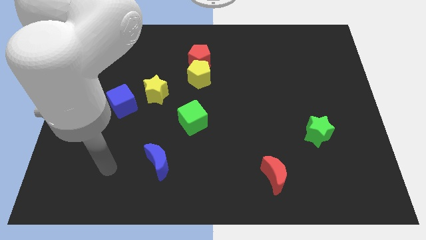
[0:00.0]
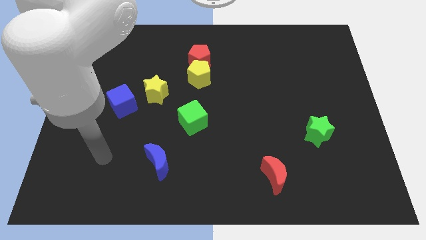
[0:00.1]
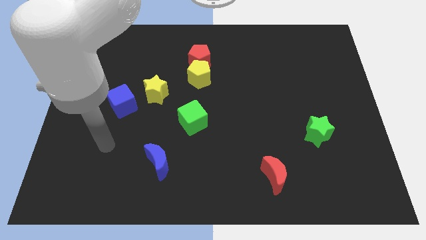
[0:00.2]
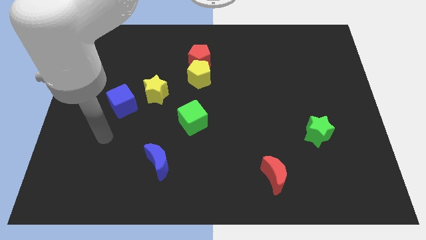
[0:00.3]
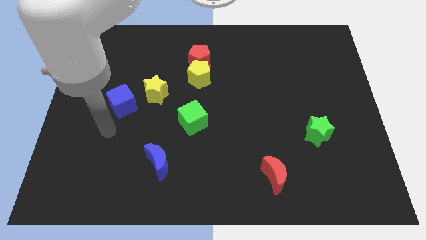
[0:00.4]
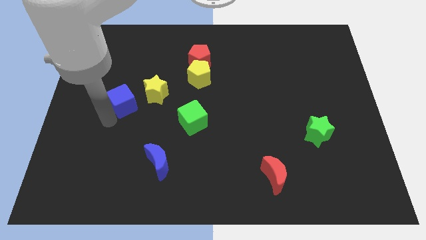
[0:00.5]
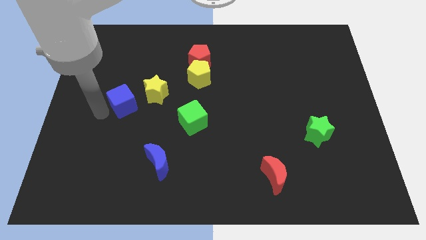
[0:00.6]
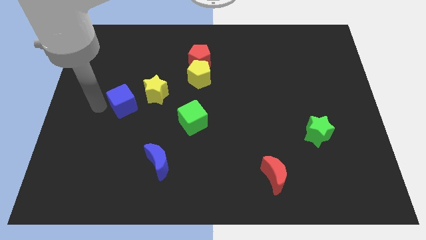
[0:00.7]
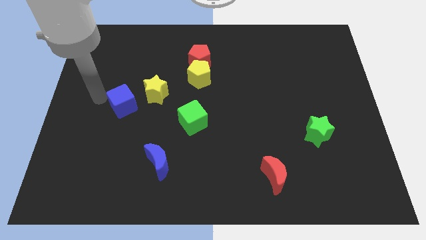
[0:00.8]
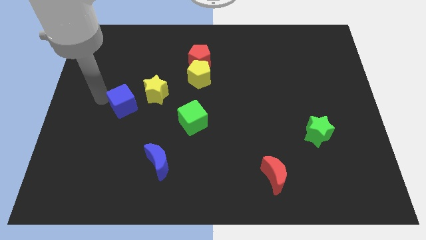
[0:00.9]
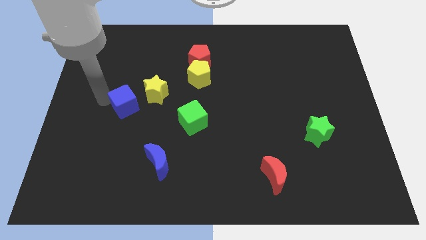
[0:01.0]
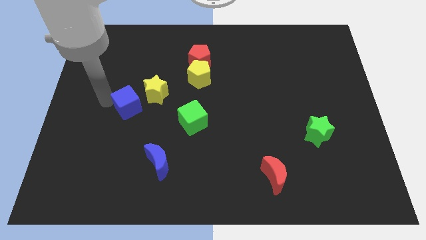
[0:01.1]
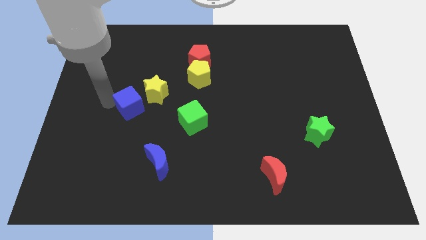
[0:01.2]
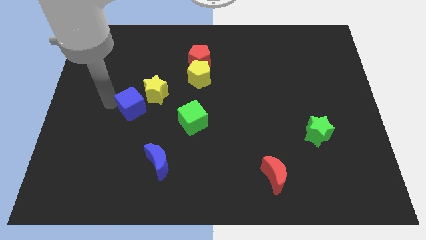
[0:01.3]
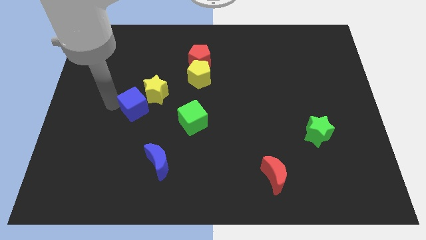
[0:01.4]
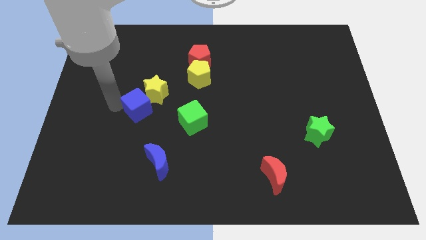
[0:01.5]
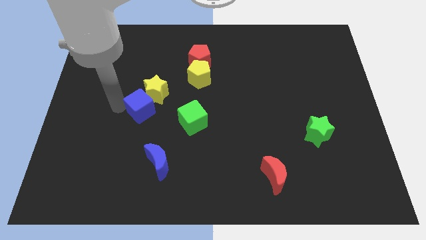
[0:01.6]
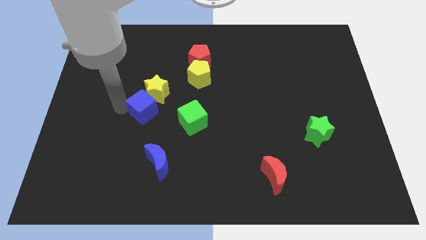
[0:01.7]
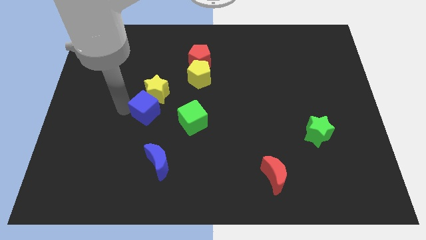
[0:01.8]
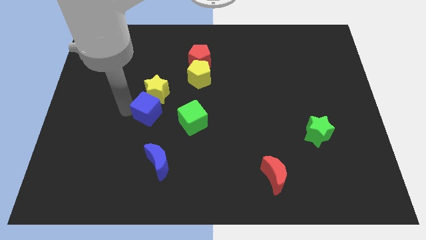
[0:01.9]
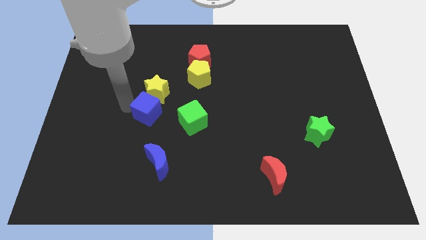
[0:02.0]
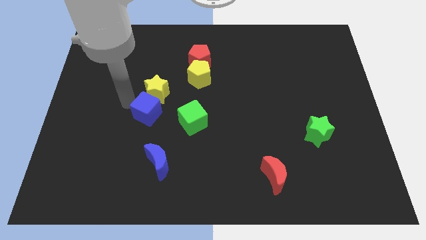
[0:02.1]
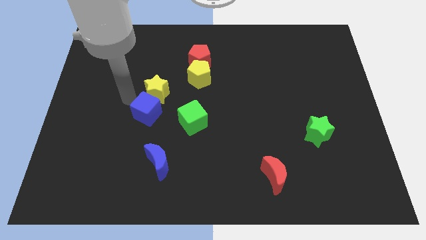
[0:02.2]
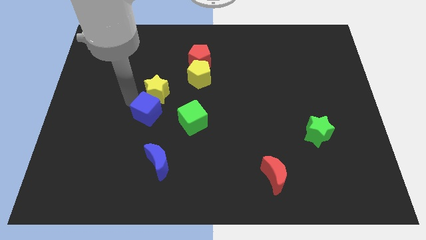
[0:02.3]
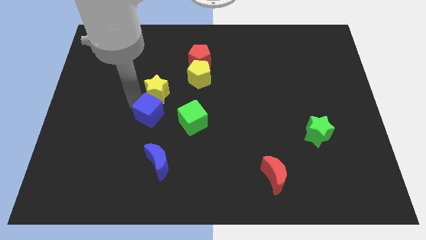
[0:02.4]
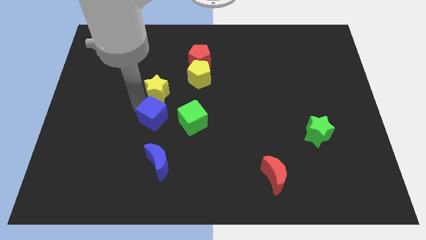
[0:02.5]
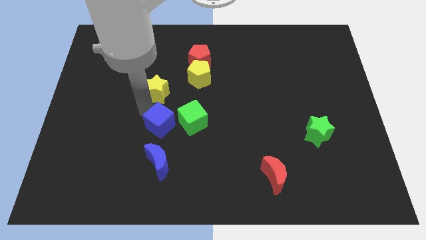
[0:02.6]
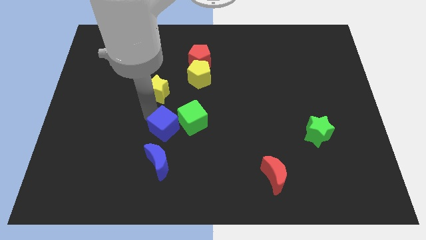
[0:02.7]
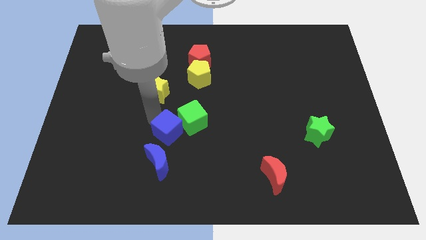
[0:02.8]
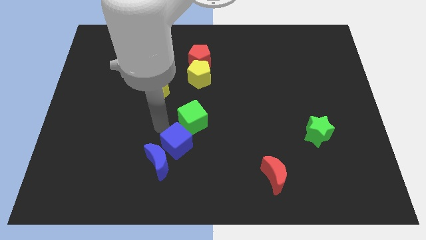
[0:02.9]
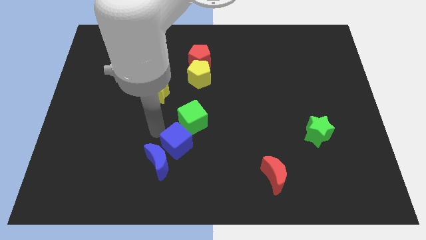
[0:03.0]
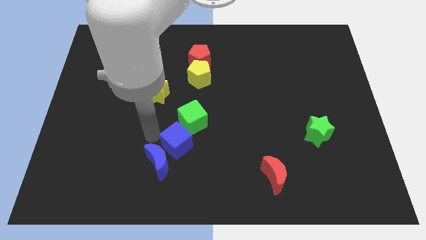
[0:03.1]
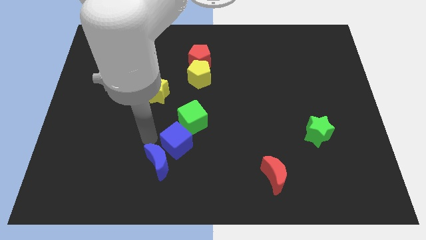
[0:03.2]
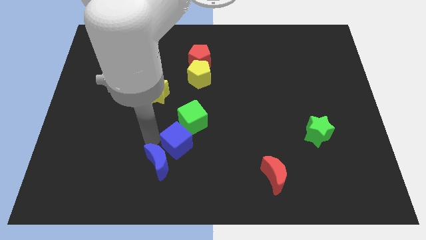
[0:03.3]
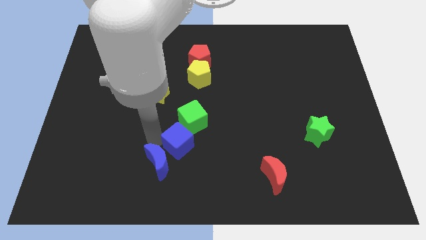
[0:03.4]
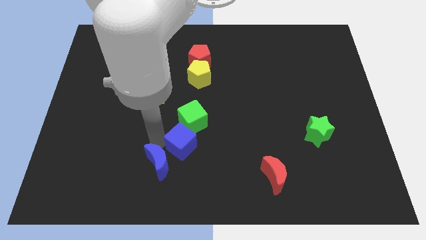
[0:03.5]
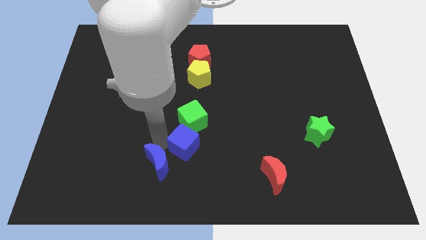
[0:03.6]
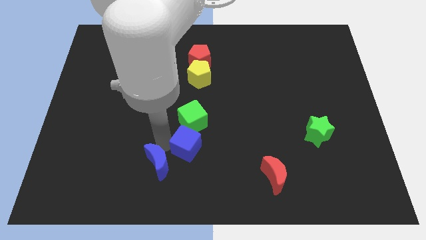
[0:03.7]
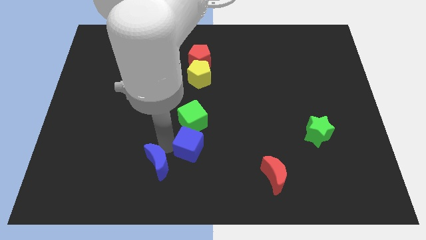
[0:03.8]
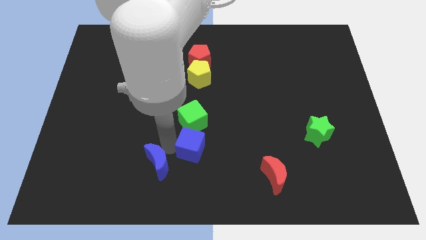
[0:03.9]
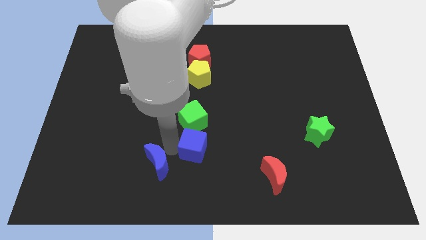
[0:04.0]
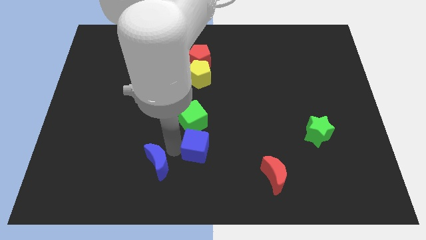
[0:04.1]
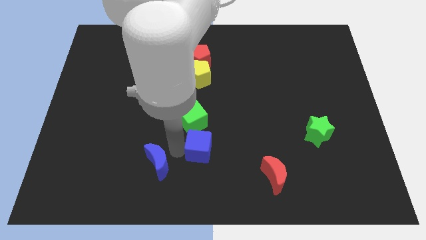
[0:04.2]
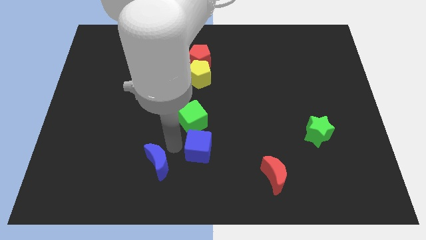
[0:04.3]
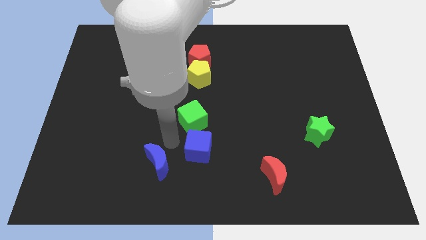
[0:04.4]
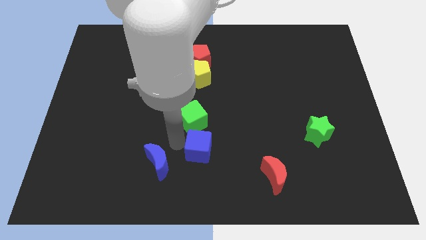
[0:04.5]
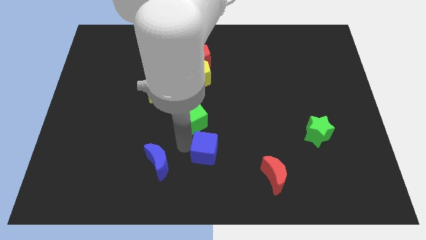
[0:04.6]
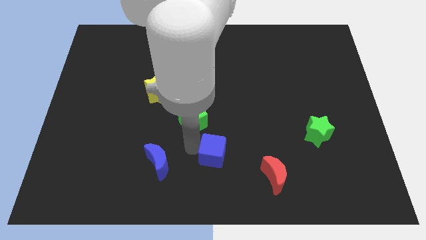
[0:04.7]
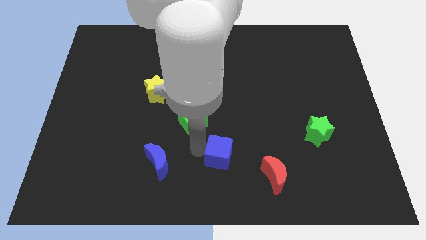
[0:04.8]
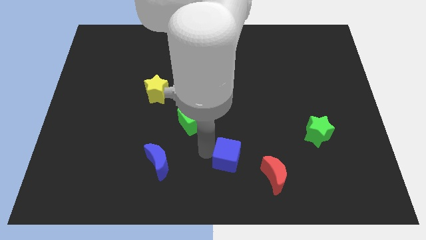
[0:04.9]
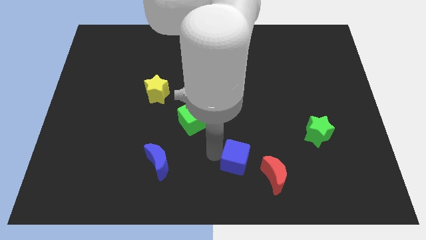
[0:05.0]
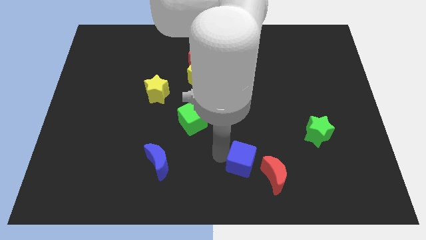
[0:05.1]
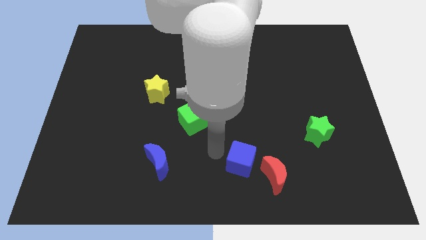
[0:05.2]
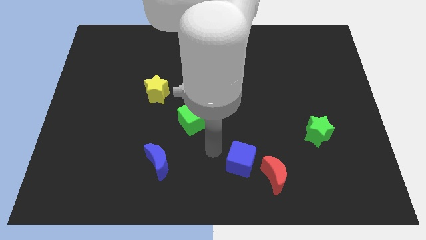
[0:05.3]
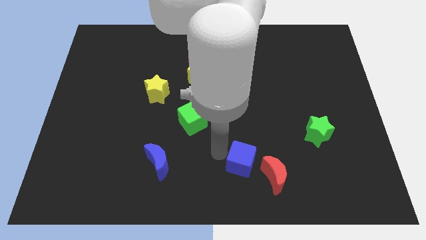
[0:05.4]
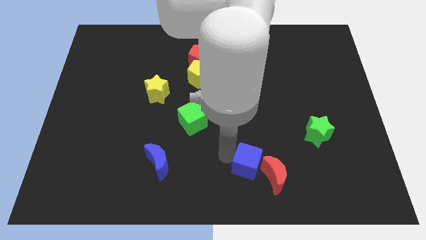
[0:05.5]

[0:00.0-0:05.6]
slide the blue cube close to the red moon

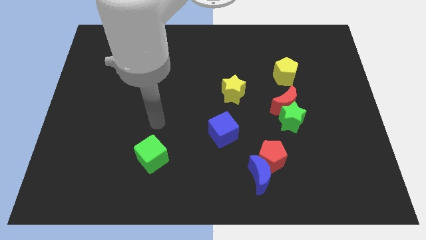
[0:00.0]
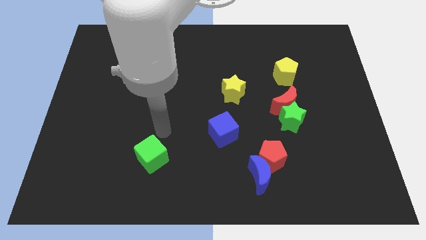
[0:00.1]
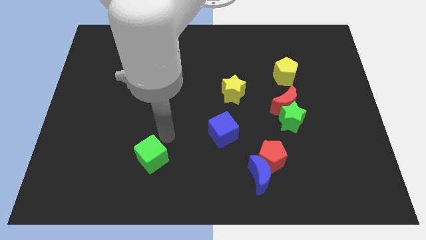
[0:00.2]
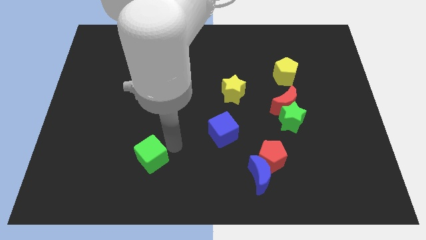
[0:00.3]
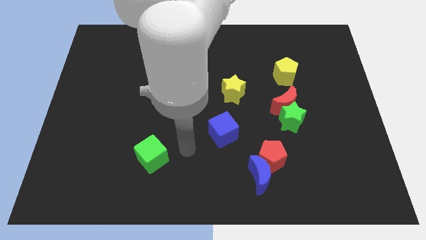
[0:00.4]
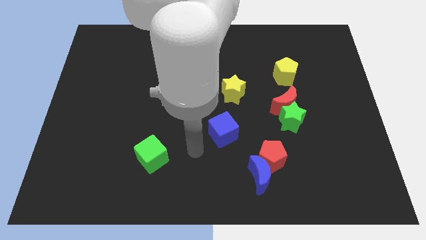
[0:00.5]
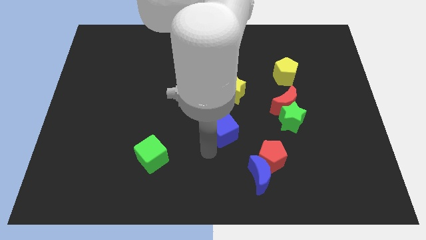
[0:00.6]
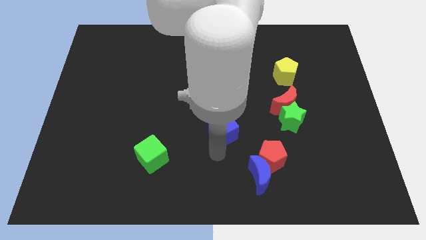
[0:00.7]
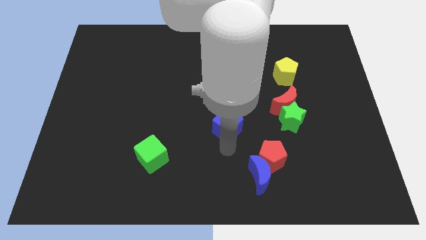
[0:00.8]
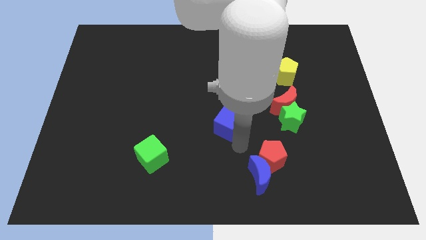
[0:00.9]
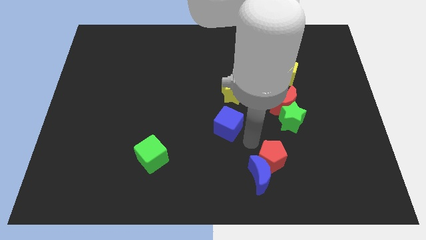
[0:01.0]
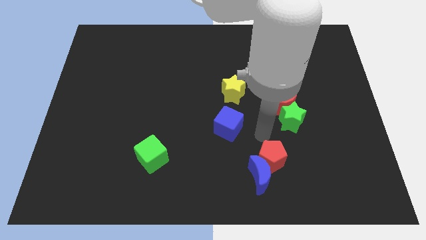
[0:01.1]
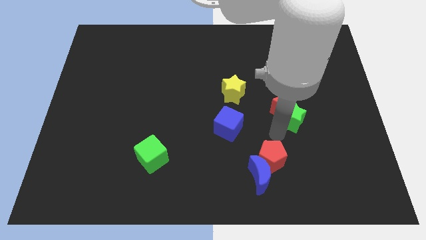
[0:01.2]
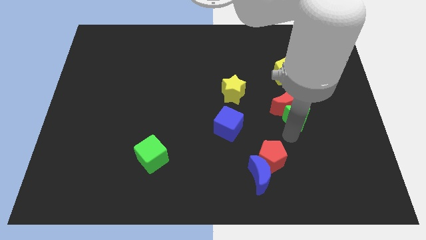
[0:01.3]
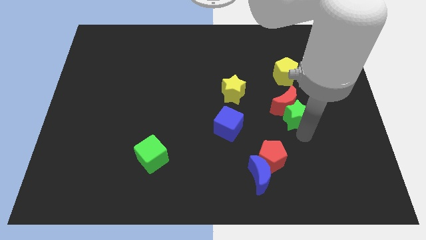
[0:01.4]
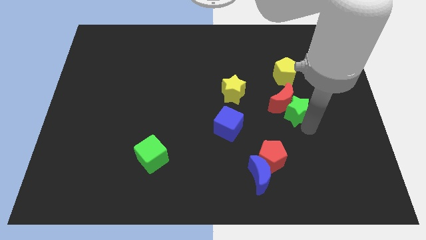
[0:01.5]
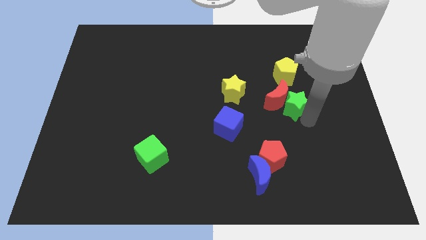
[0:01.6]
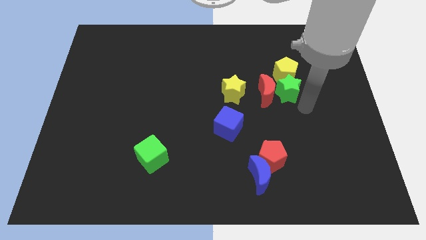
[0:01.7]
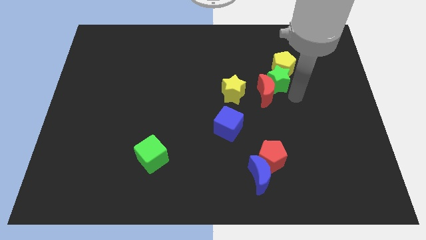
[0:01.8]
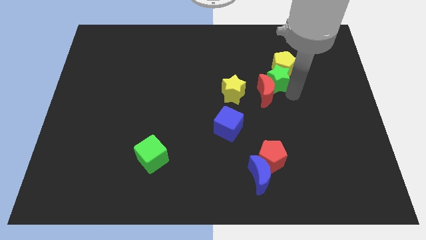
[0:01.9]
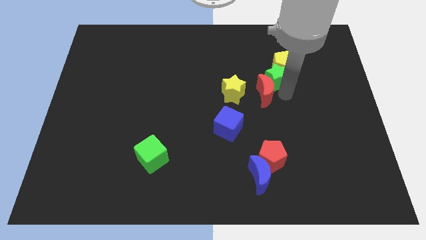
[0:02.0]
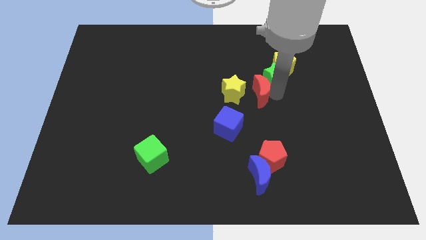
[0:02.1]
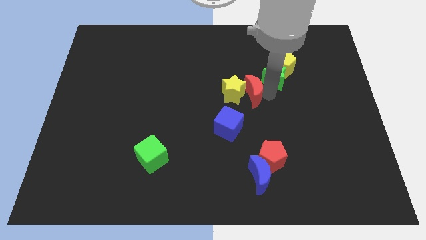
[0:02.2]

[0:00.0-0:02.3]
push the red moon close to the yellow star
